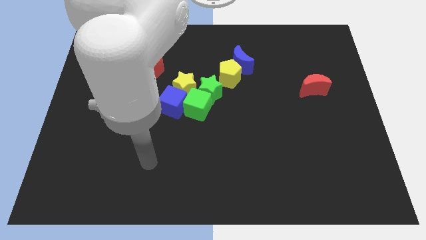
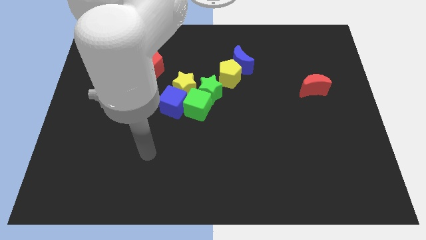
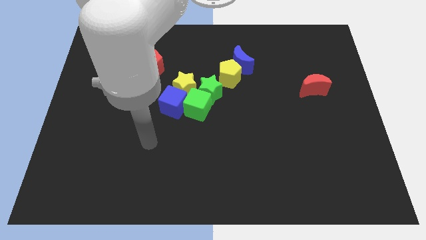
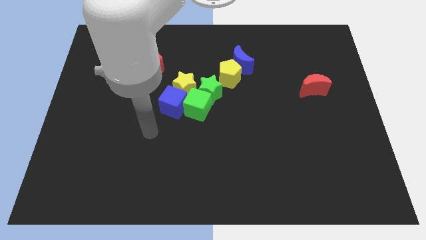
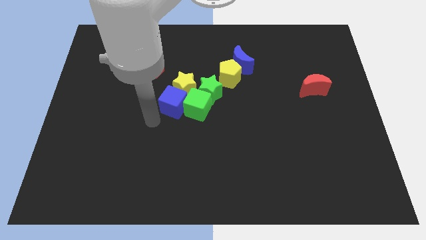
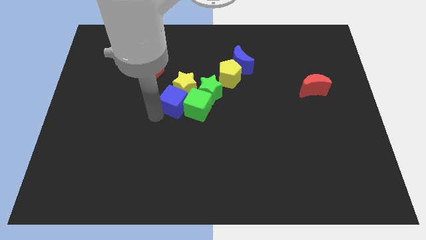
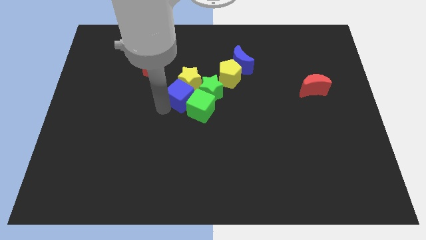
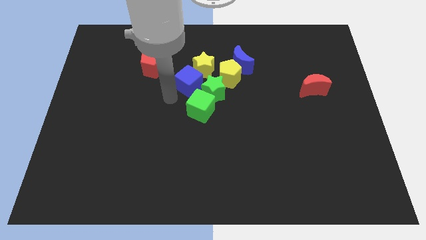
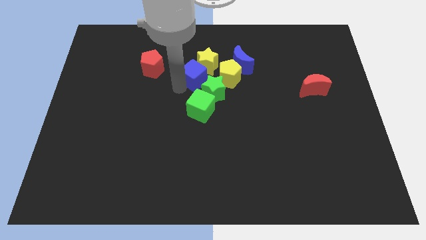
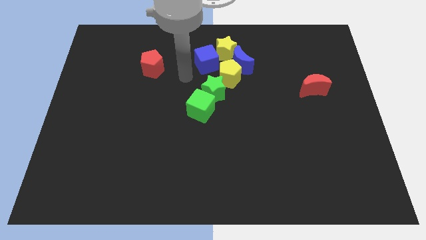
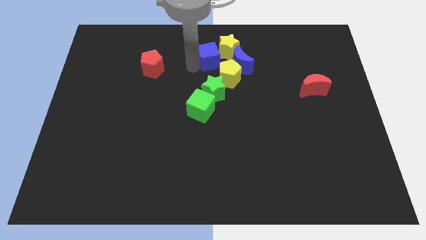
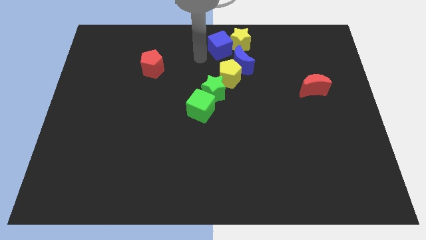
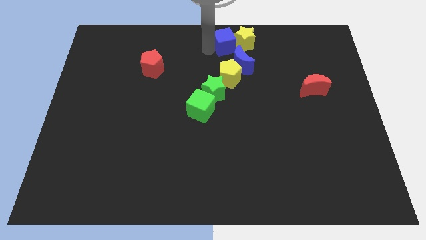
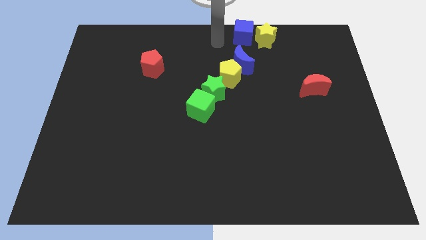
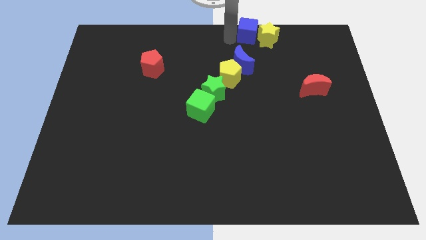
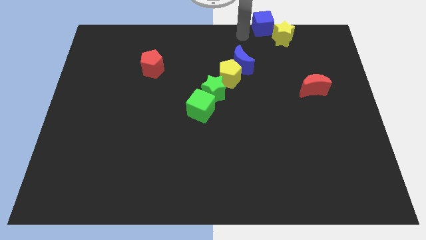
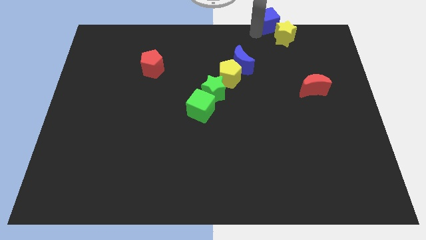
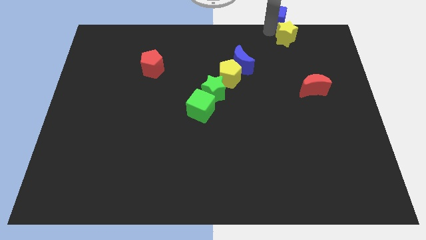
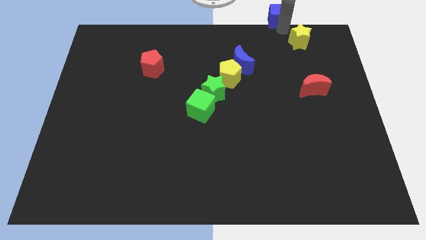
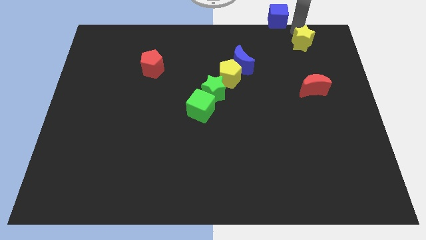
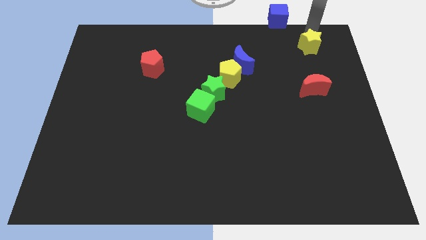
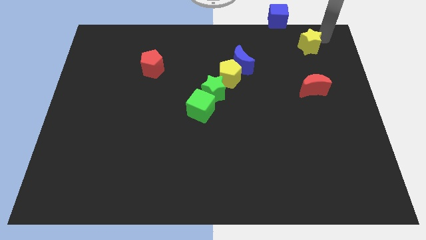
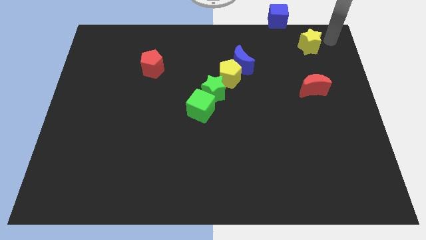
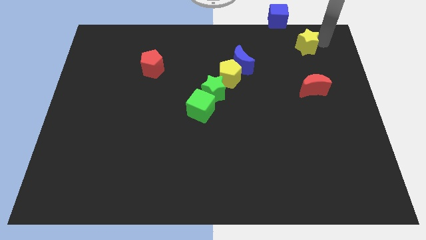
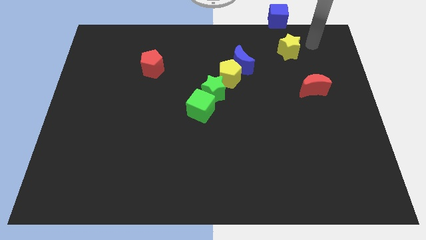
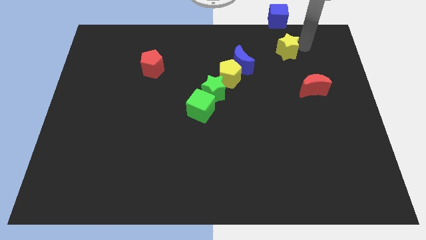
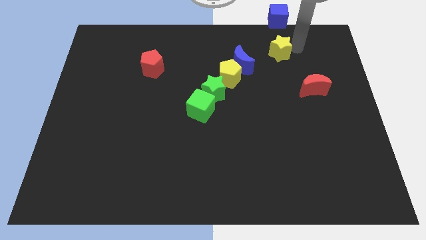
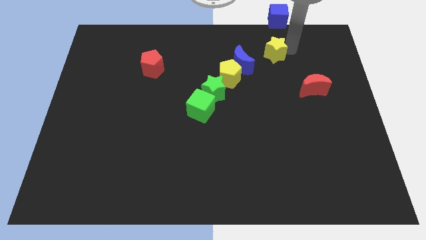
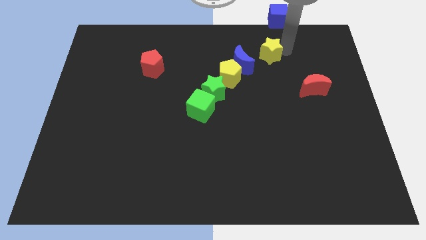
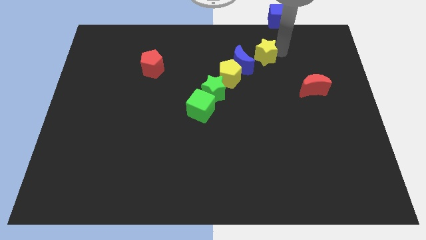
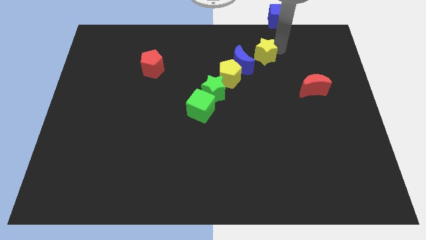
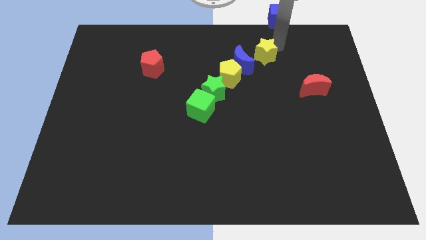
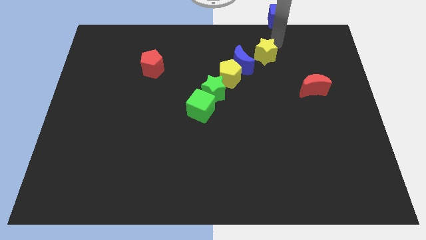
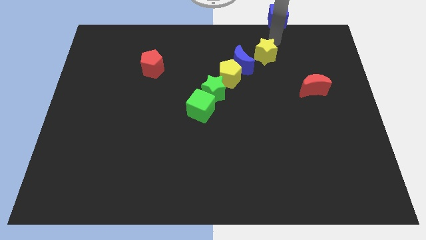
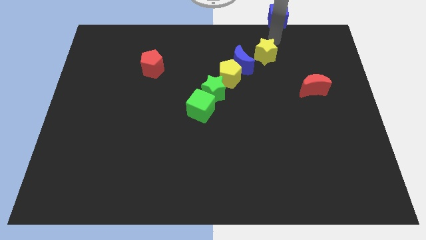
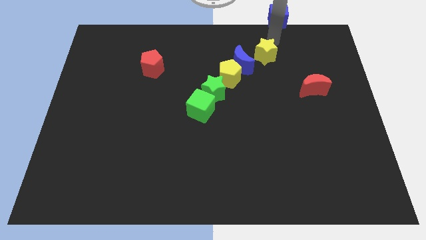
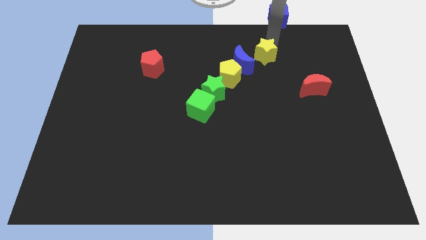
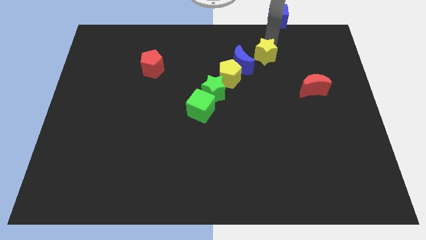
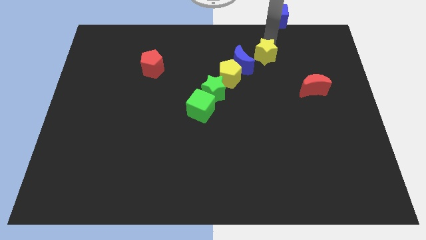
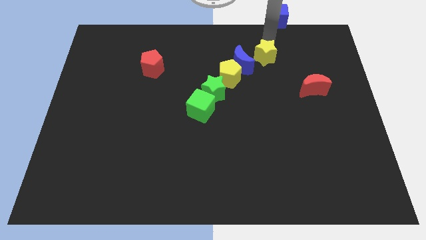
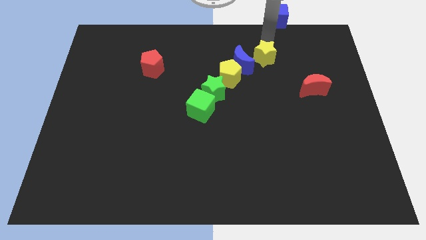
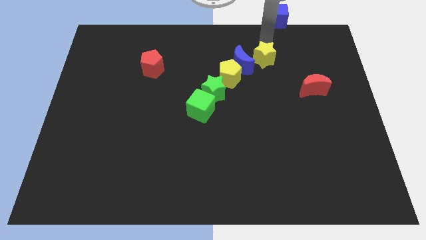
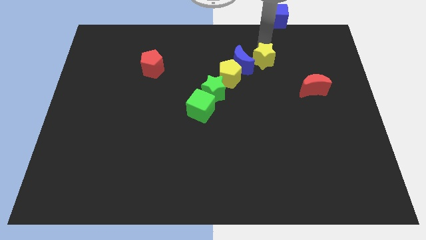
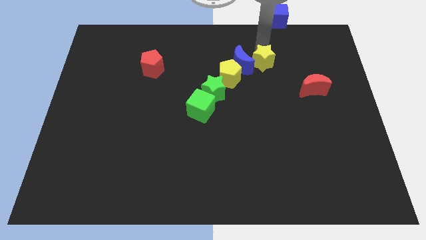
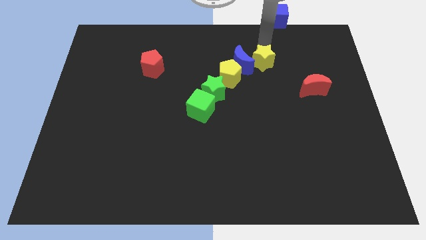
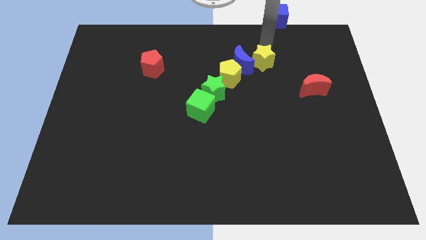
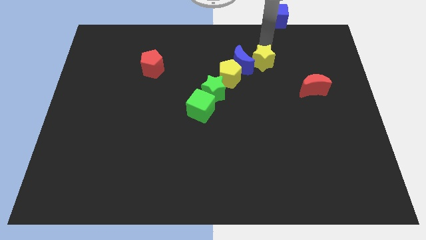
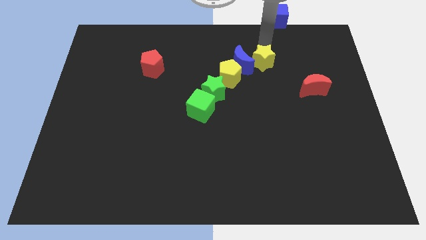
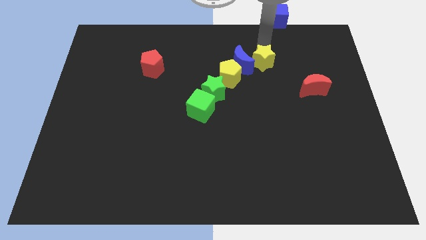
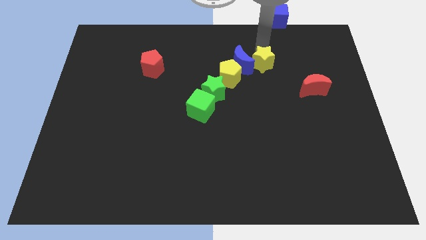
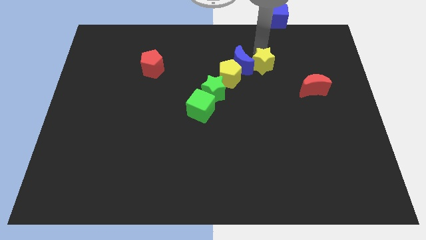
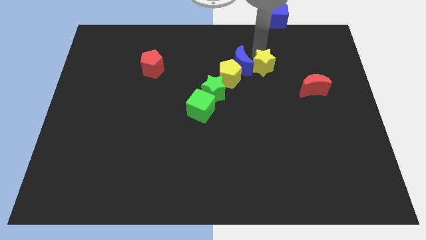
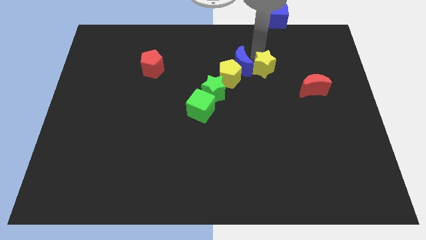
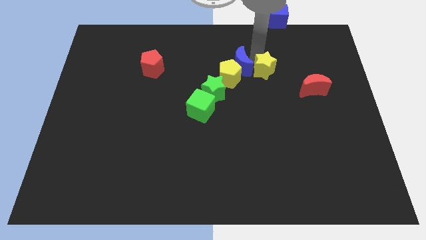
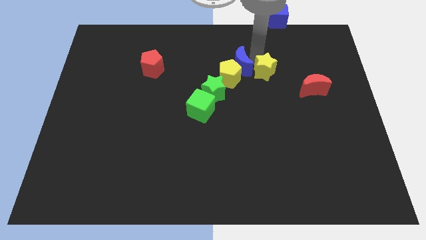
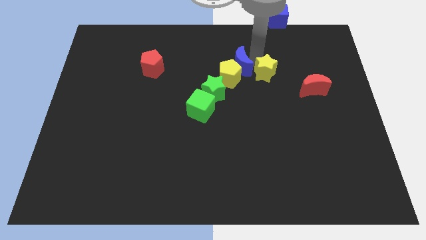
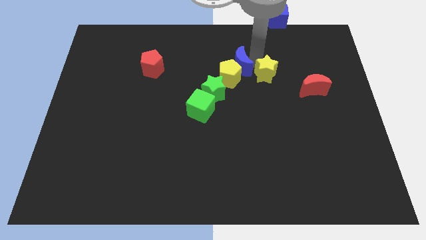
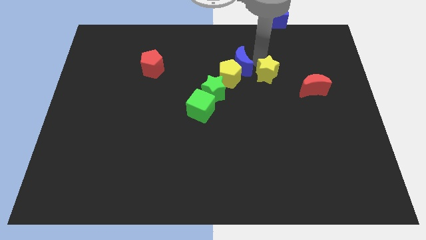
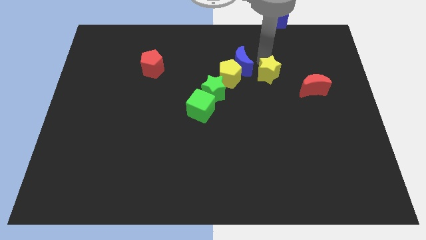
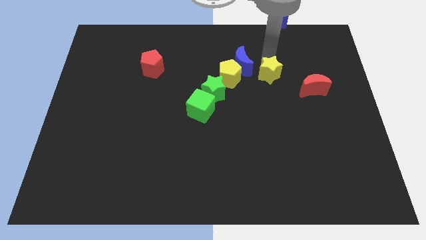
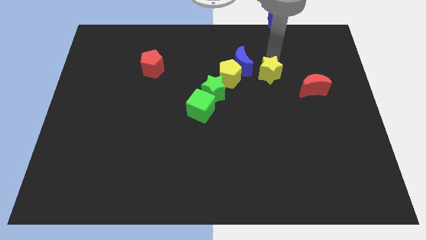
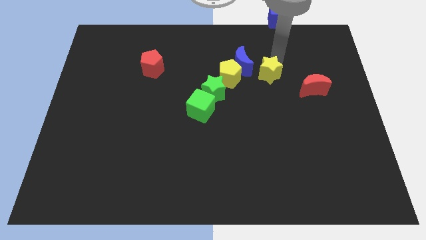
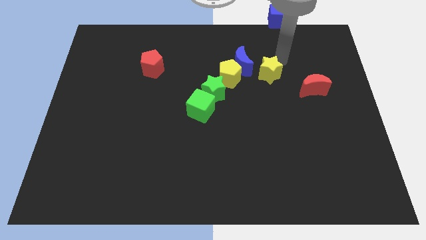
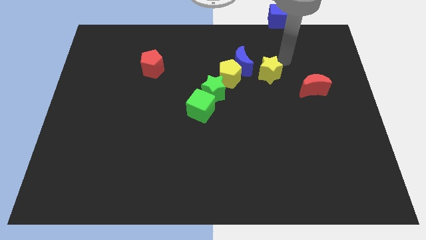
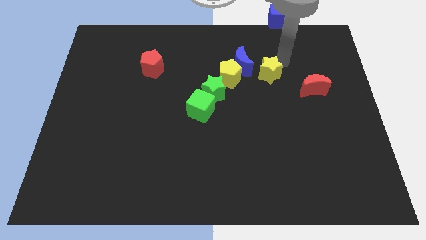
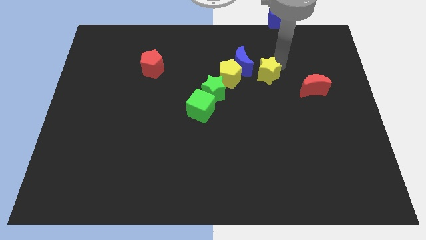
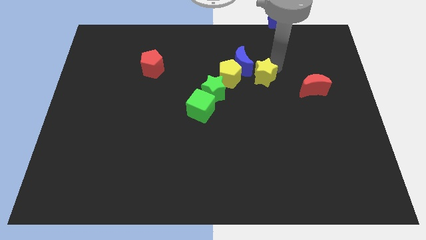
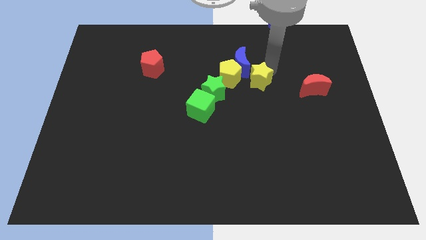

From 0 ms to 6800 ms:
move the yellow star right of the green star
